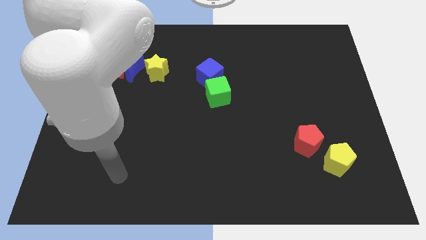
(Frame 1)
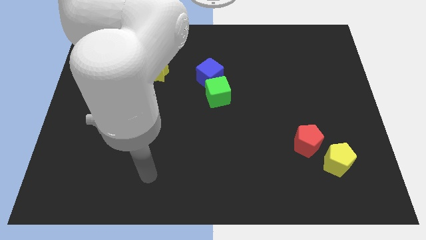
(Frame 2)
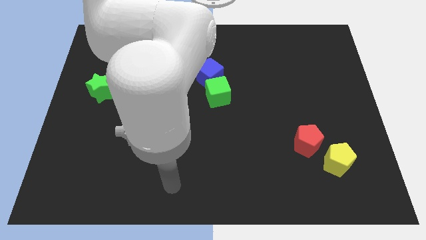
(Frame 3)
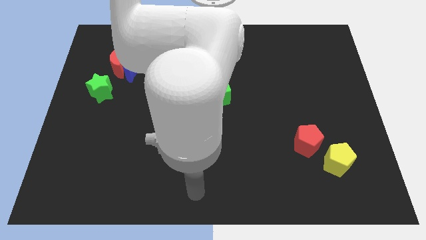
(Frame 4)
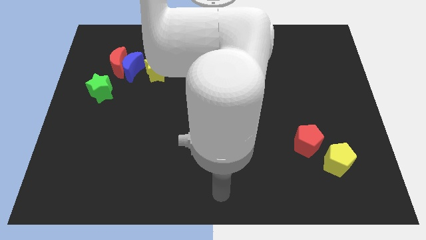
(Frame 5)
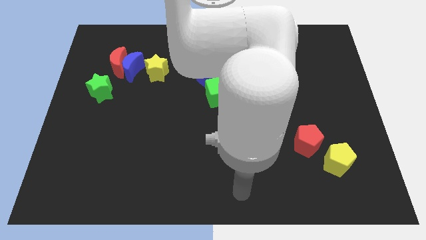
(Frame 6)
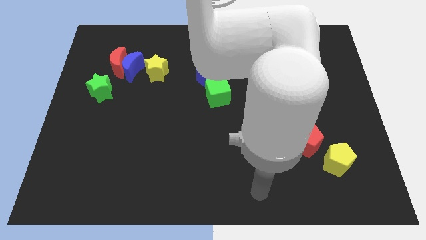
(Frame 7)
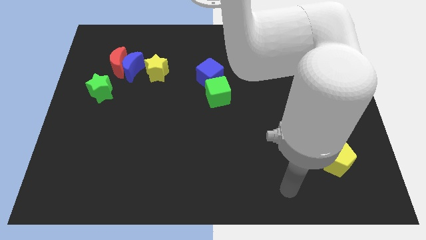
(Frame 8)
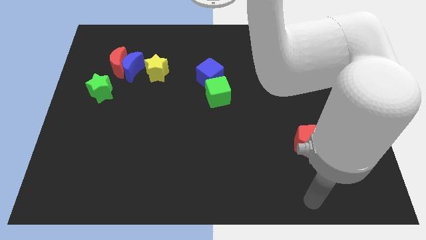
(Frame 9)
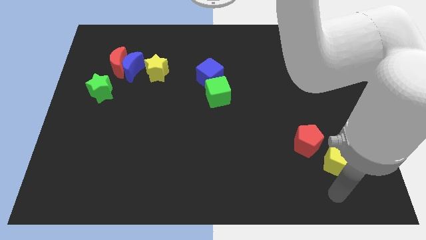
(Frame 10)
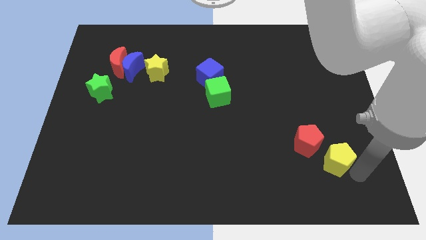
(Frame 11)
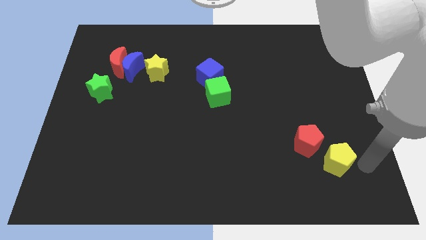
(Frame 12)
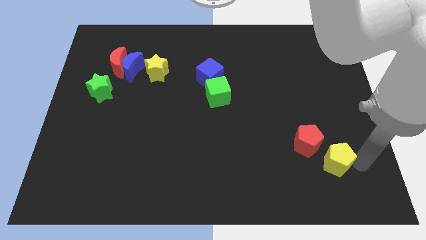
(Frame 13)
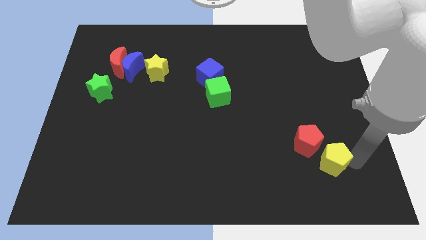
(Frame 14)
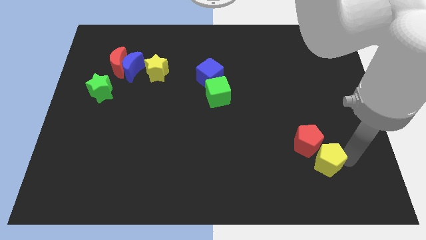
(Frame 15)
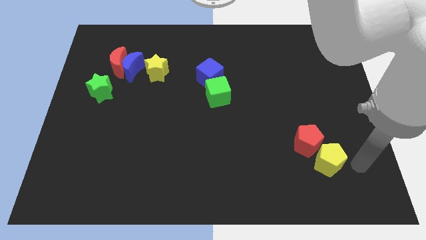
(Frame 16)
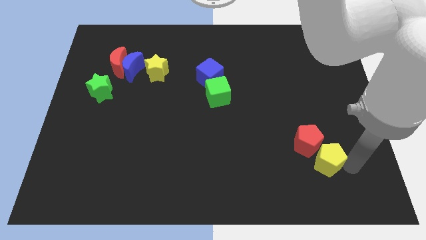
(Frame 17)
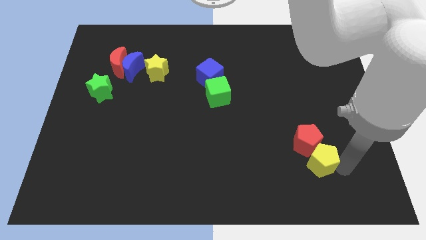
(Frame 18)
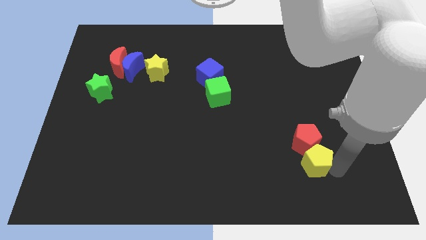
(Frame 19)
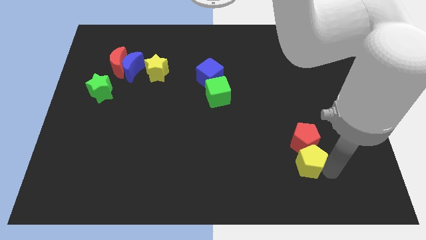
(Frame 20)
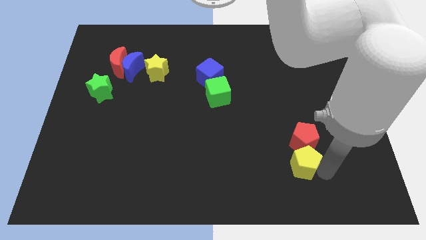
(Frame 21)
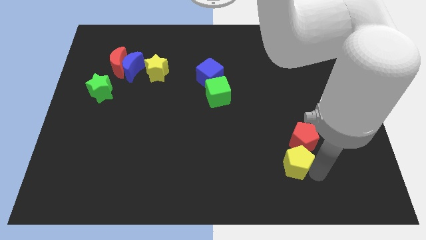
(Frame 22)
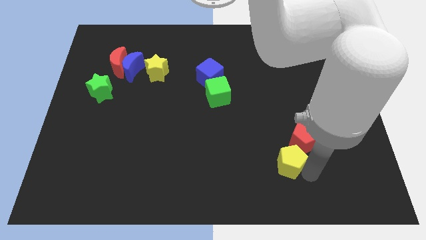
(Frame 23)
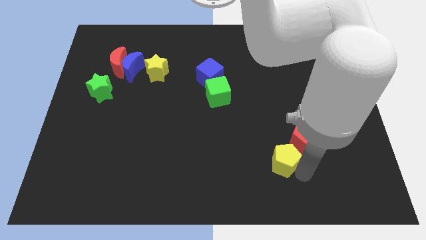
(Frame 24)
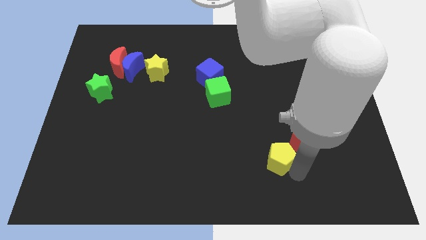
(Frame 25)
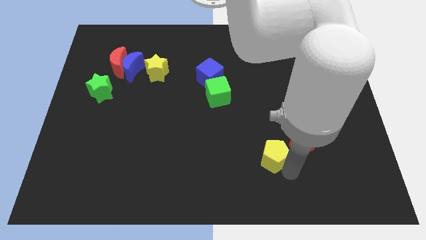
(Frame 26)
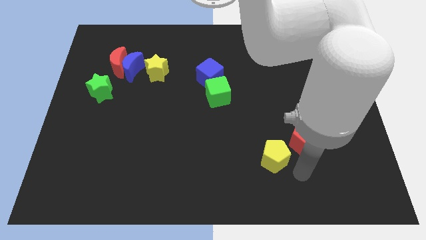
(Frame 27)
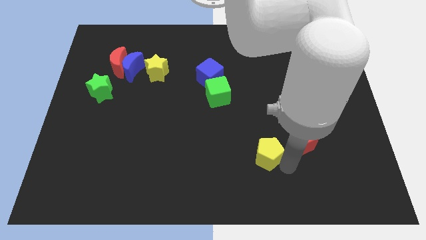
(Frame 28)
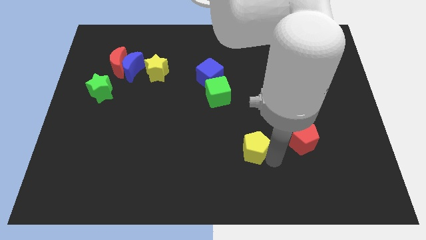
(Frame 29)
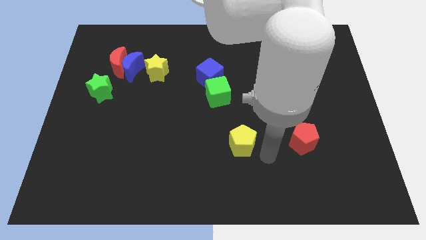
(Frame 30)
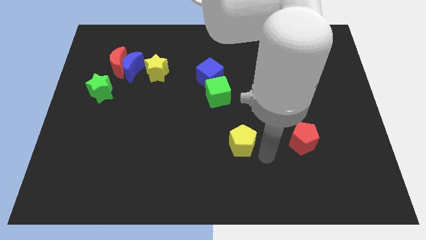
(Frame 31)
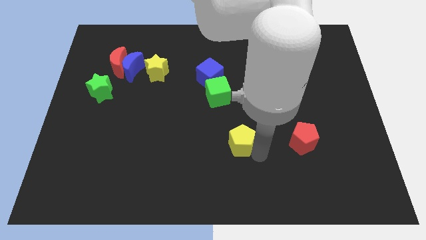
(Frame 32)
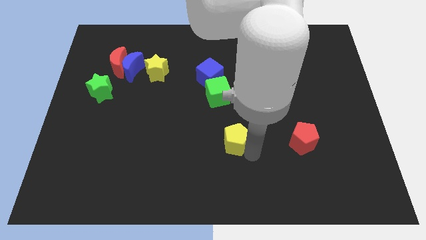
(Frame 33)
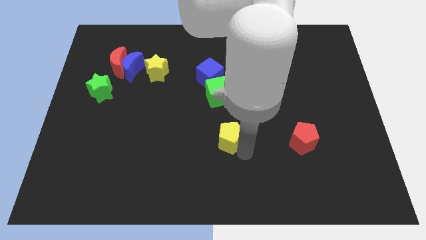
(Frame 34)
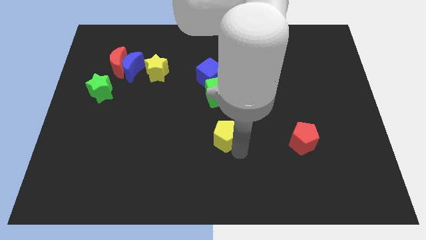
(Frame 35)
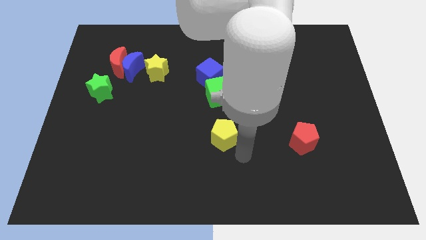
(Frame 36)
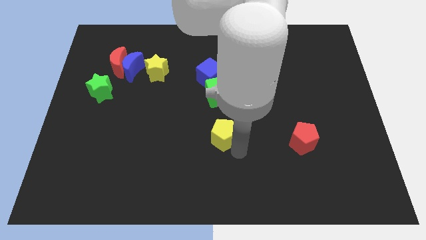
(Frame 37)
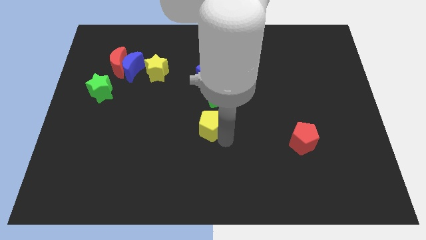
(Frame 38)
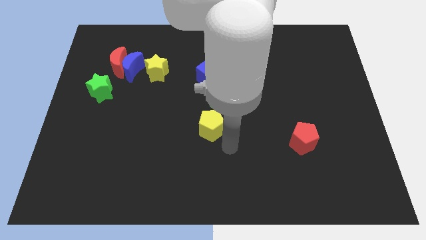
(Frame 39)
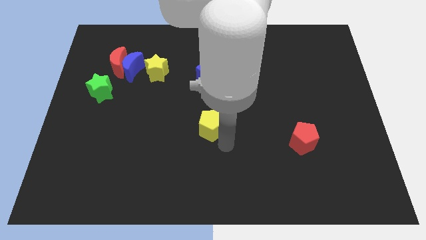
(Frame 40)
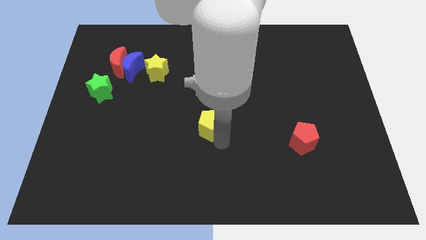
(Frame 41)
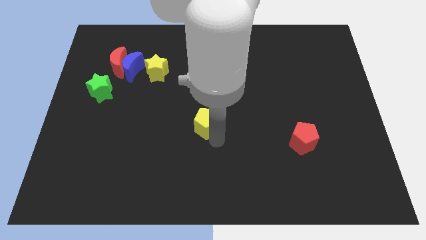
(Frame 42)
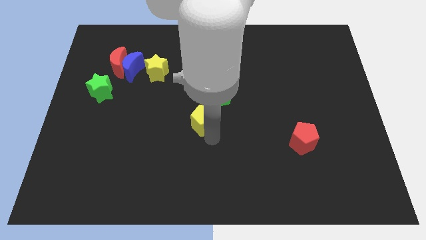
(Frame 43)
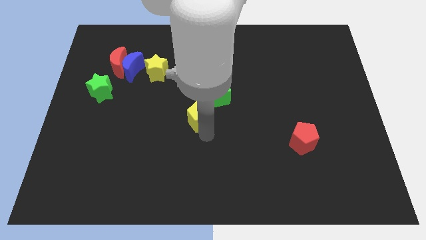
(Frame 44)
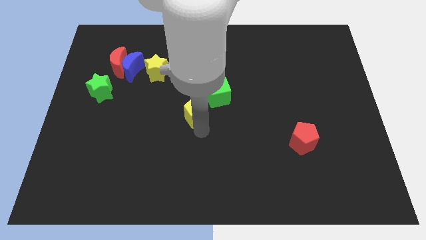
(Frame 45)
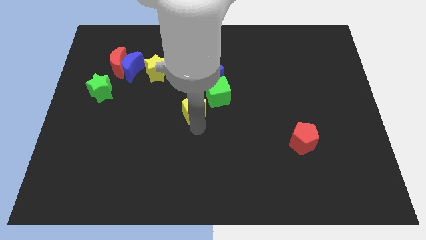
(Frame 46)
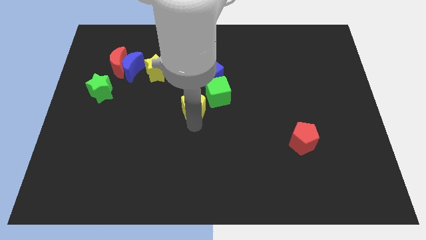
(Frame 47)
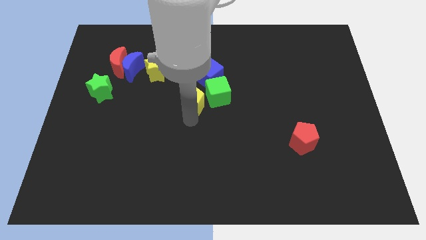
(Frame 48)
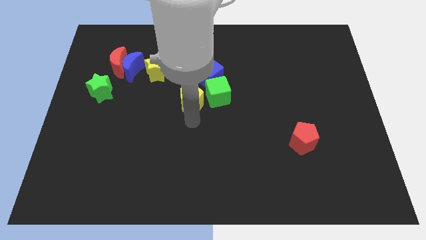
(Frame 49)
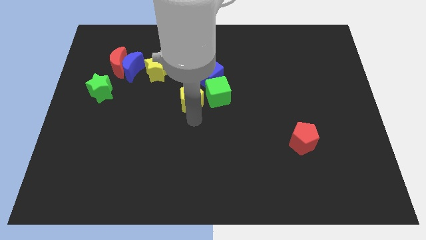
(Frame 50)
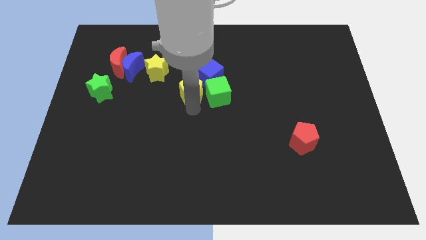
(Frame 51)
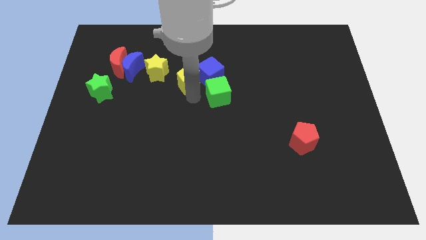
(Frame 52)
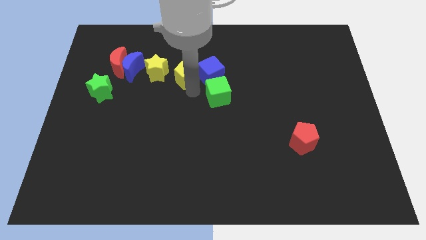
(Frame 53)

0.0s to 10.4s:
push the yellow pentagon to the right side of the blue moon

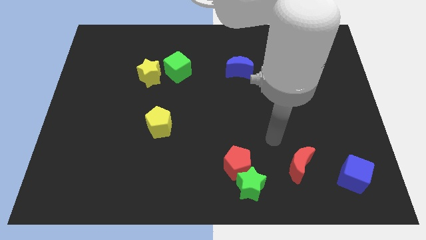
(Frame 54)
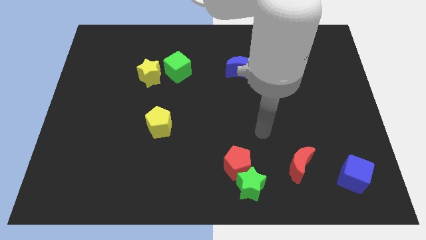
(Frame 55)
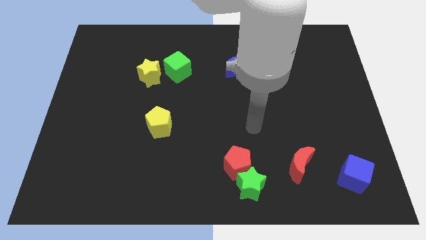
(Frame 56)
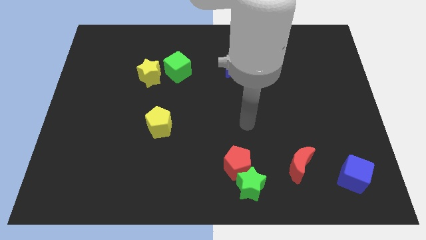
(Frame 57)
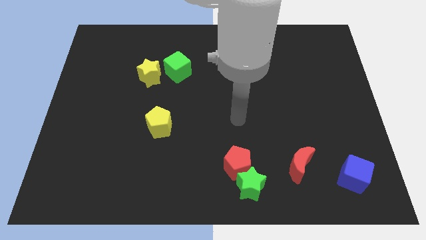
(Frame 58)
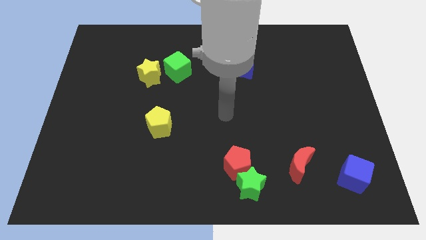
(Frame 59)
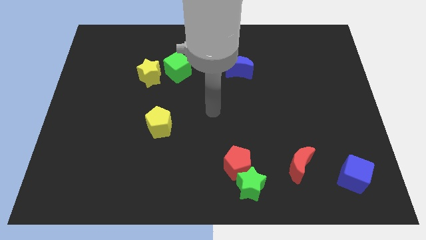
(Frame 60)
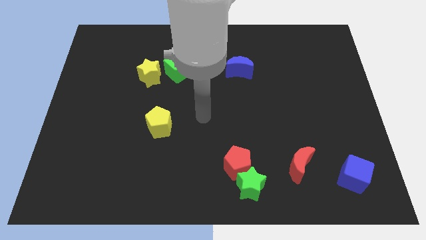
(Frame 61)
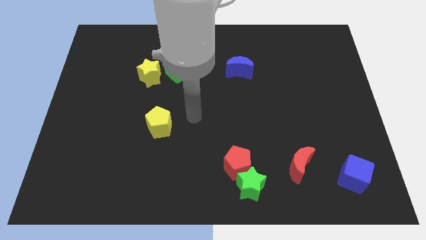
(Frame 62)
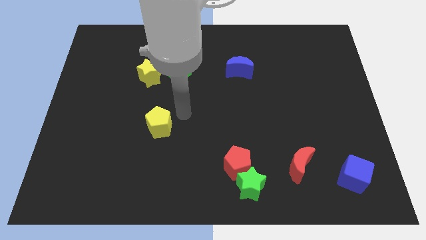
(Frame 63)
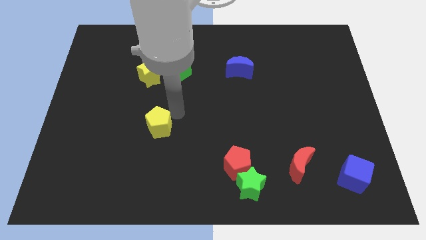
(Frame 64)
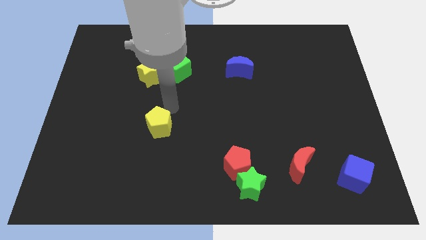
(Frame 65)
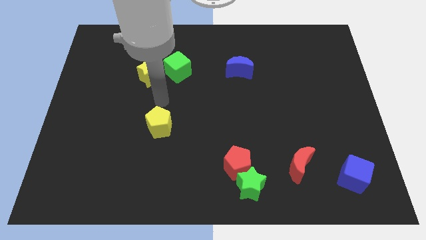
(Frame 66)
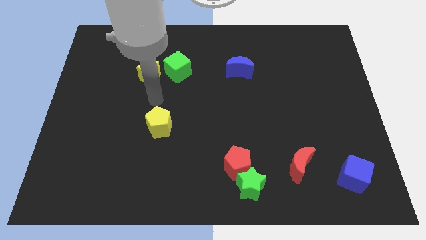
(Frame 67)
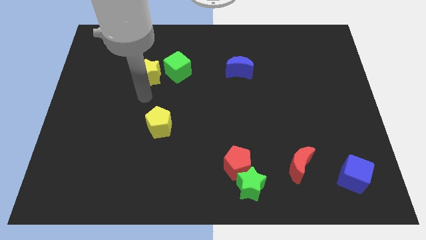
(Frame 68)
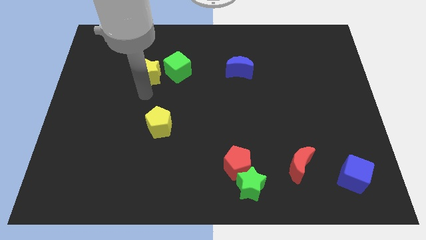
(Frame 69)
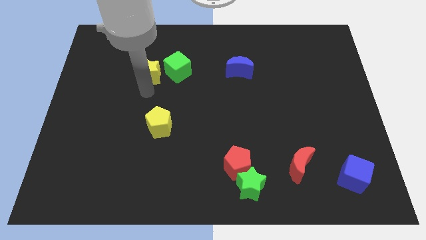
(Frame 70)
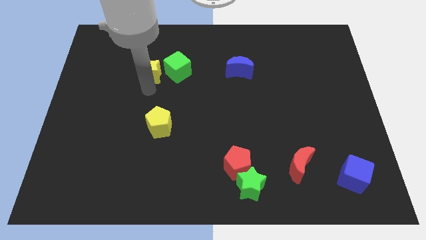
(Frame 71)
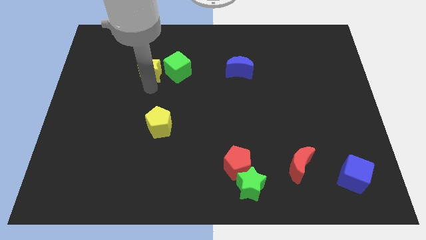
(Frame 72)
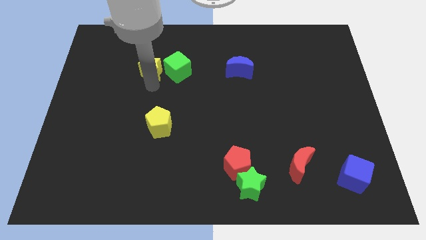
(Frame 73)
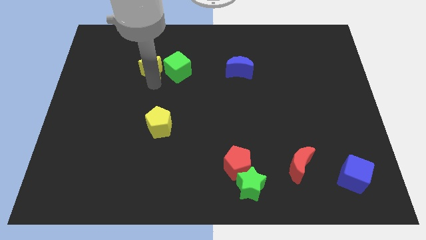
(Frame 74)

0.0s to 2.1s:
move the yellow star diagonally up and to the left of the green cube
